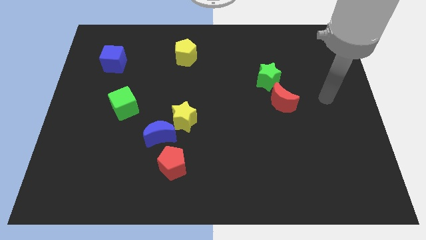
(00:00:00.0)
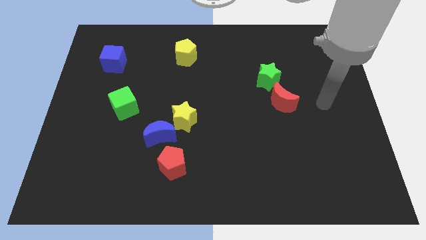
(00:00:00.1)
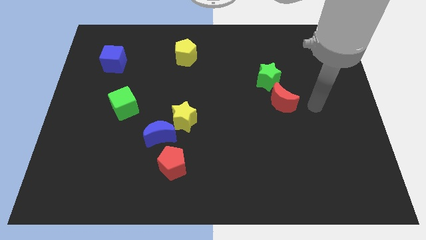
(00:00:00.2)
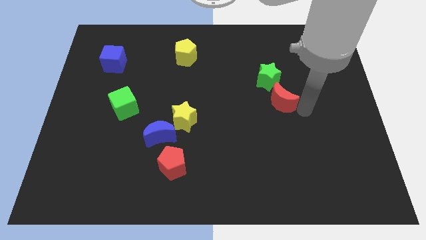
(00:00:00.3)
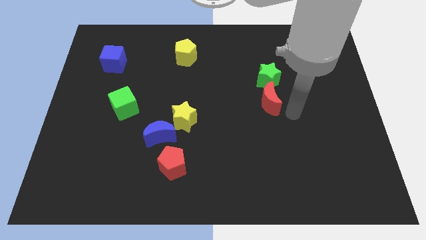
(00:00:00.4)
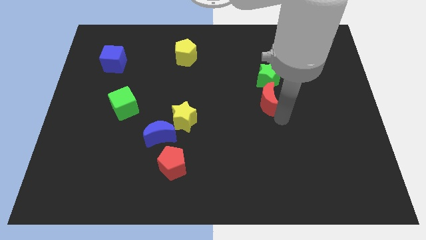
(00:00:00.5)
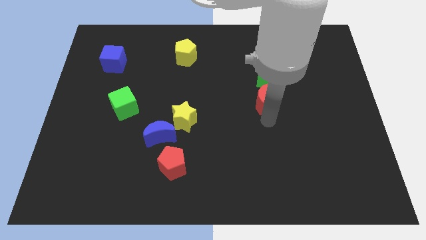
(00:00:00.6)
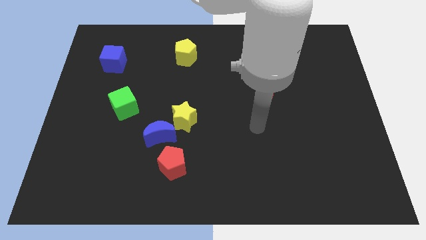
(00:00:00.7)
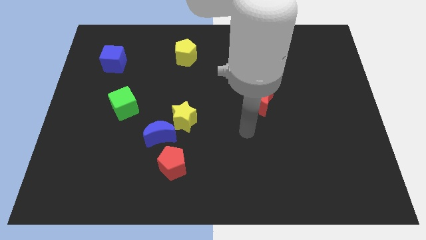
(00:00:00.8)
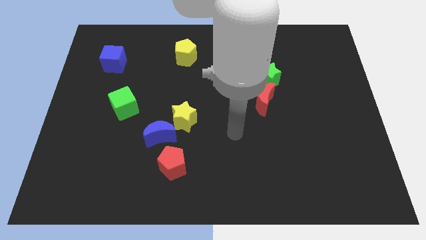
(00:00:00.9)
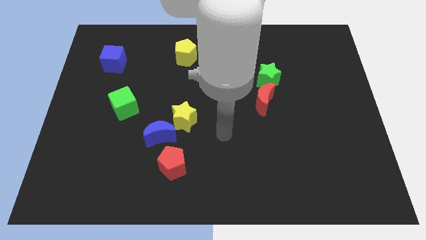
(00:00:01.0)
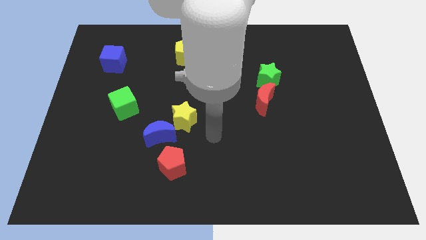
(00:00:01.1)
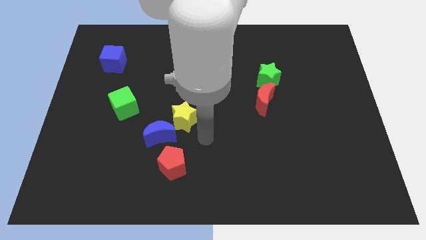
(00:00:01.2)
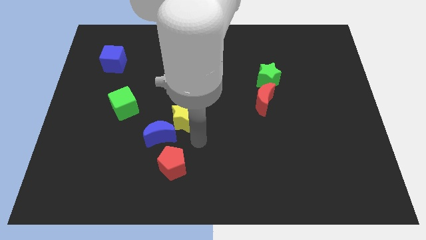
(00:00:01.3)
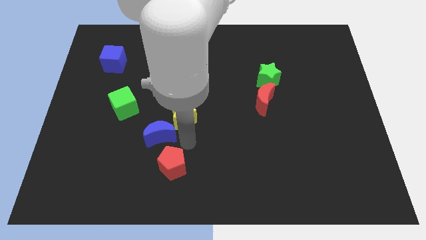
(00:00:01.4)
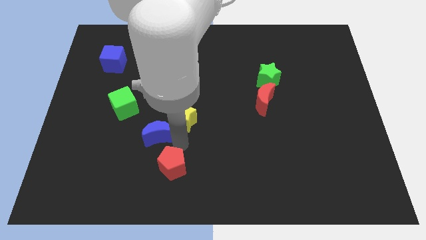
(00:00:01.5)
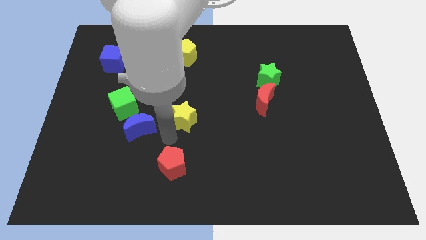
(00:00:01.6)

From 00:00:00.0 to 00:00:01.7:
move the yellow star away from the blue moon

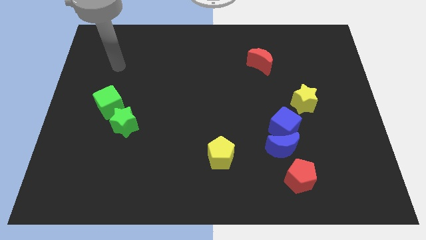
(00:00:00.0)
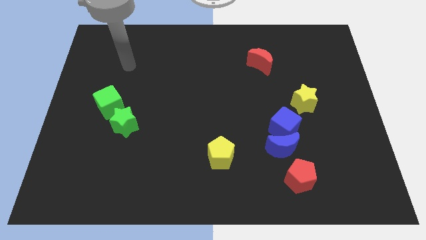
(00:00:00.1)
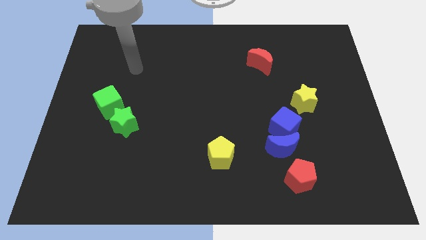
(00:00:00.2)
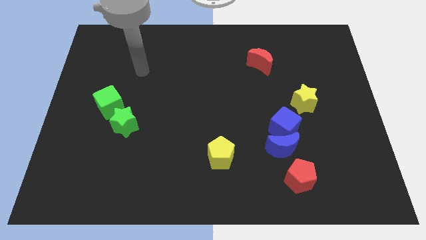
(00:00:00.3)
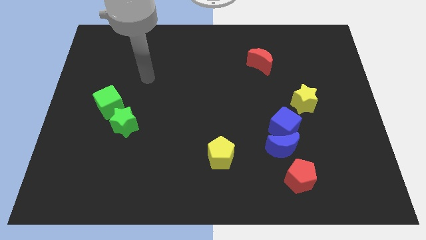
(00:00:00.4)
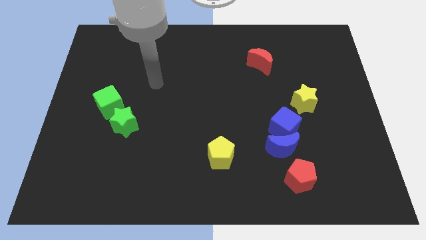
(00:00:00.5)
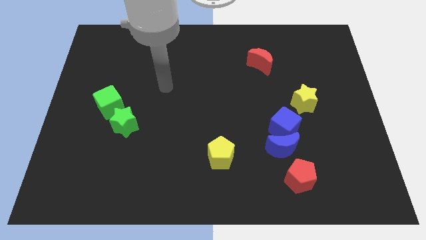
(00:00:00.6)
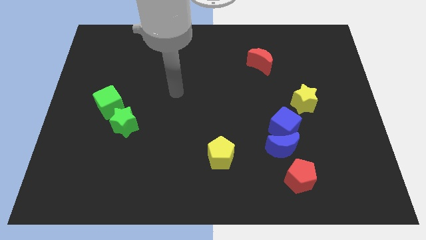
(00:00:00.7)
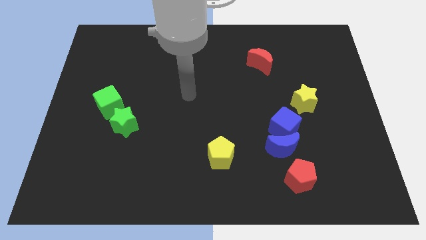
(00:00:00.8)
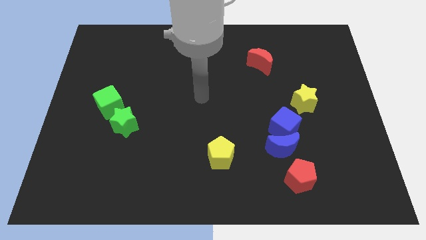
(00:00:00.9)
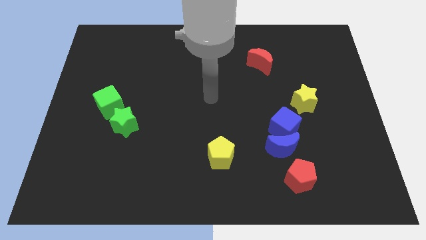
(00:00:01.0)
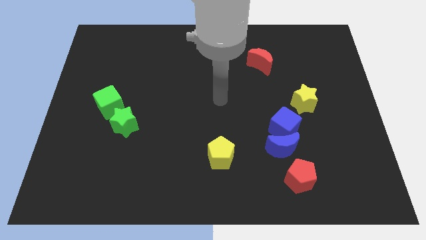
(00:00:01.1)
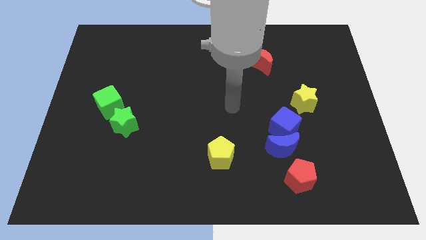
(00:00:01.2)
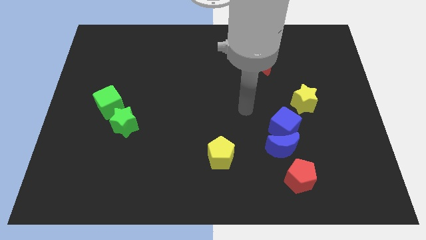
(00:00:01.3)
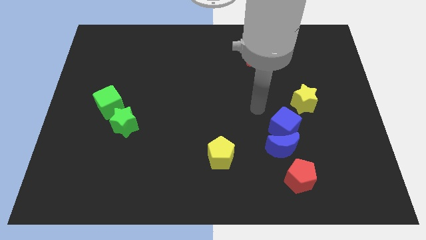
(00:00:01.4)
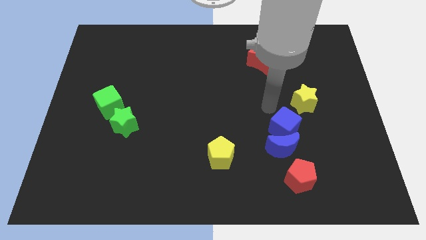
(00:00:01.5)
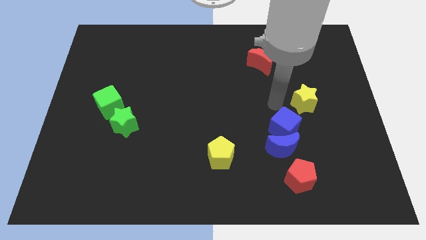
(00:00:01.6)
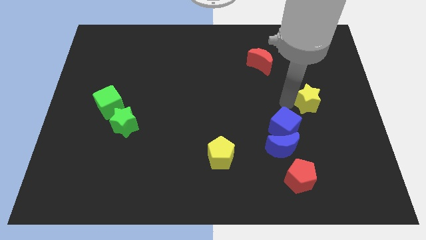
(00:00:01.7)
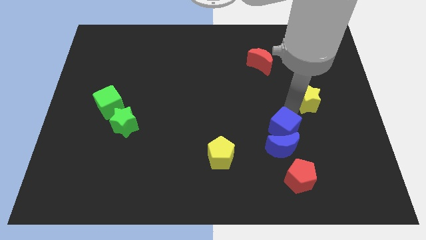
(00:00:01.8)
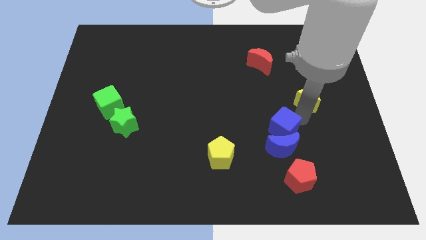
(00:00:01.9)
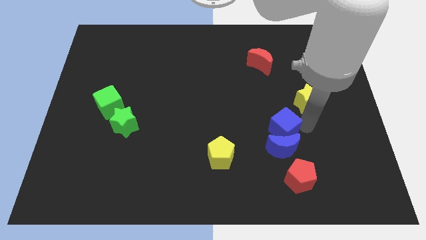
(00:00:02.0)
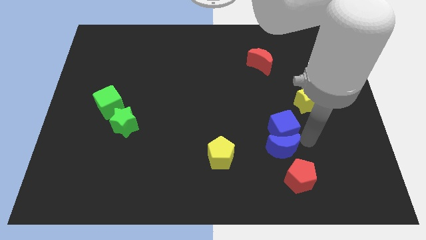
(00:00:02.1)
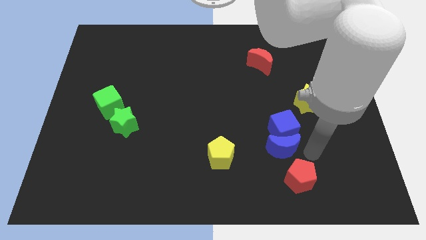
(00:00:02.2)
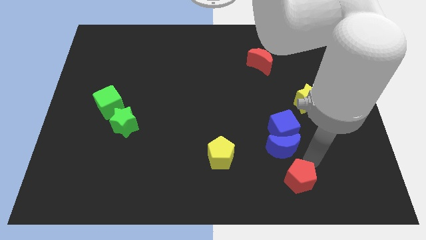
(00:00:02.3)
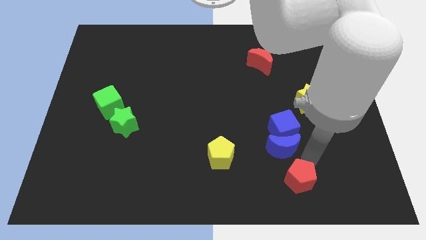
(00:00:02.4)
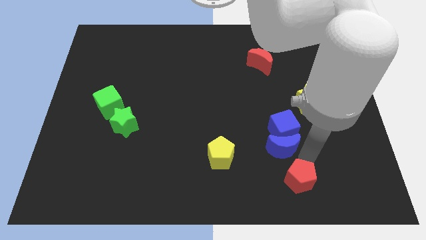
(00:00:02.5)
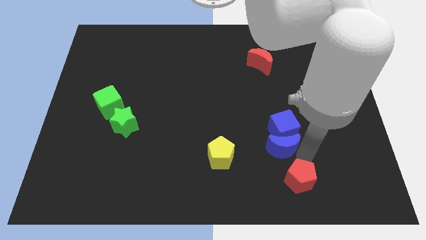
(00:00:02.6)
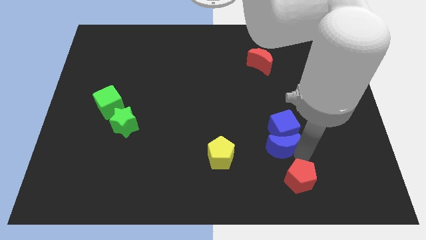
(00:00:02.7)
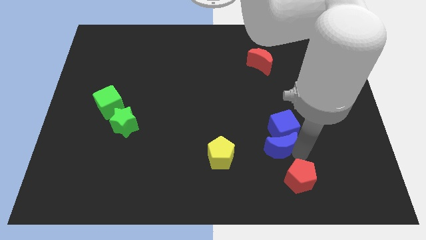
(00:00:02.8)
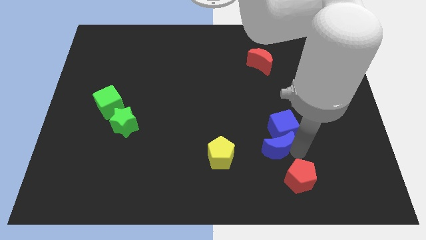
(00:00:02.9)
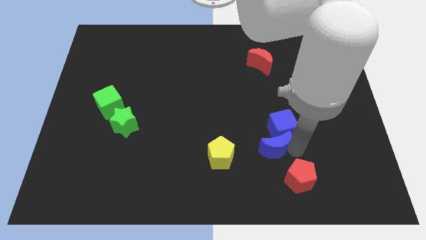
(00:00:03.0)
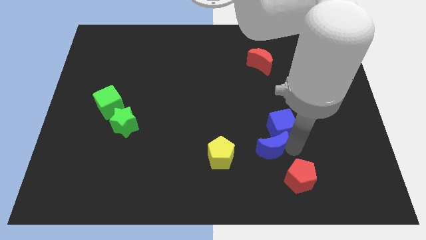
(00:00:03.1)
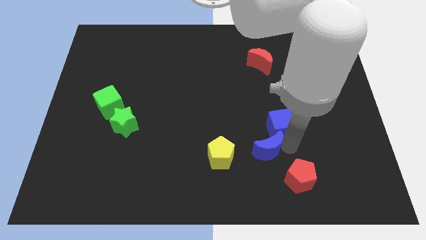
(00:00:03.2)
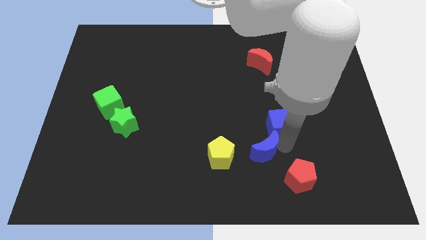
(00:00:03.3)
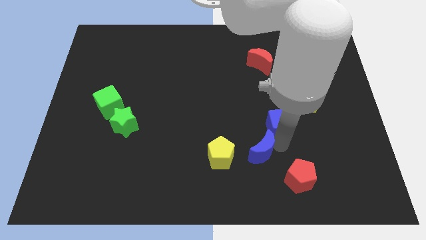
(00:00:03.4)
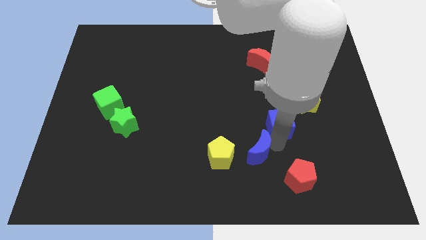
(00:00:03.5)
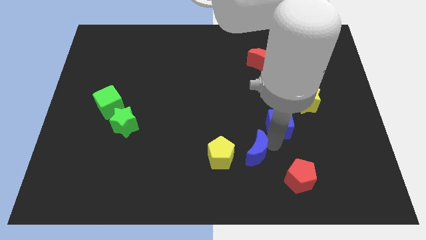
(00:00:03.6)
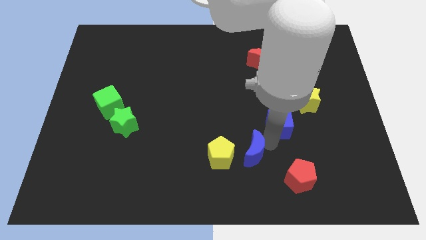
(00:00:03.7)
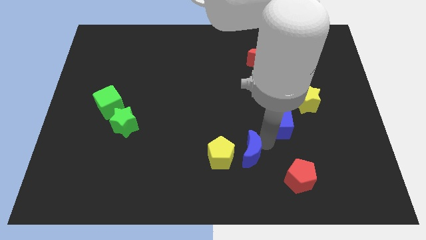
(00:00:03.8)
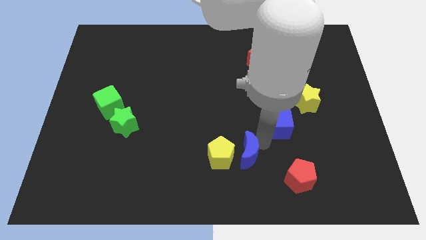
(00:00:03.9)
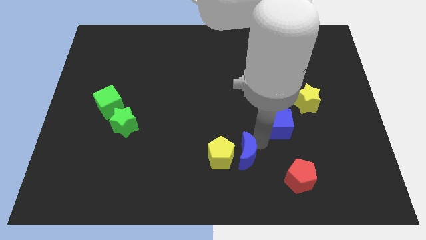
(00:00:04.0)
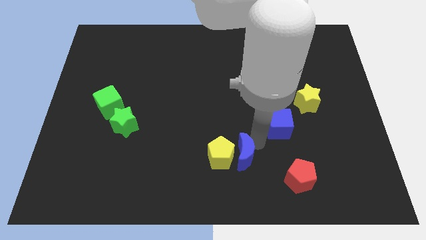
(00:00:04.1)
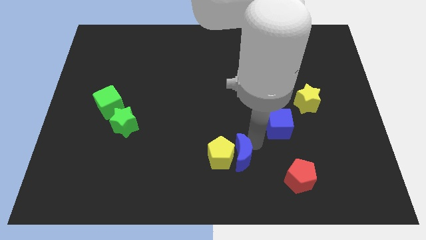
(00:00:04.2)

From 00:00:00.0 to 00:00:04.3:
separate the blue moon from the blue cube and red pentagon

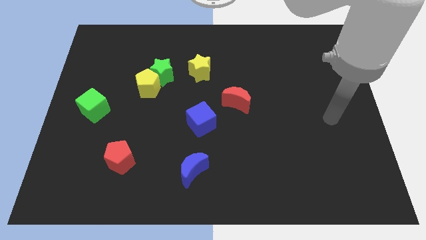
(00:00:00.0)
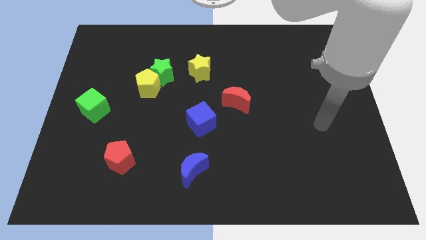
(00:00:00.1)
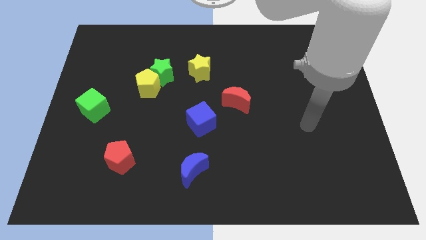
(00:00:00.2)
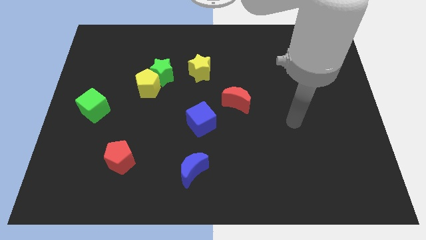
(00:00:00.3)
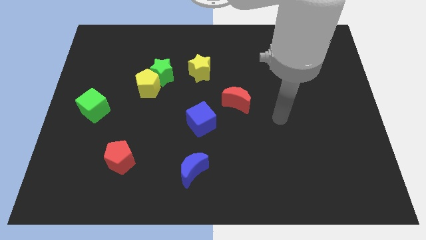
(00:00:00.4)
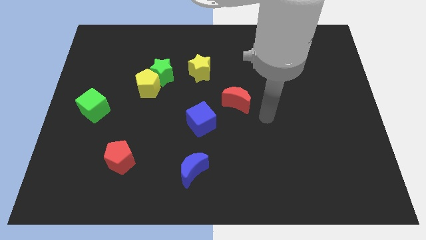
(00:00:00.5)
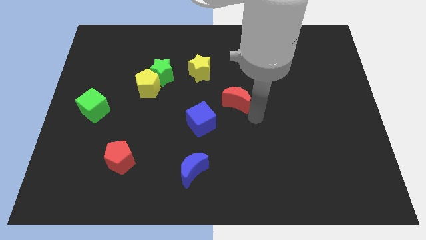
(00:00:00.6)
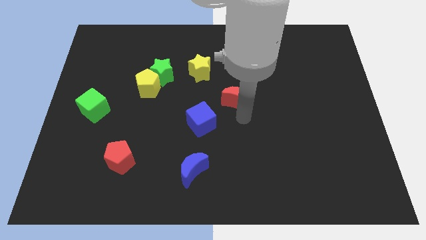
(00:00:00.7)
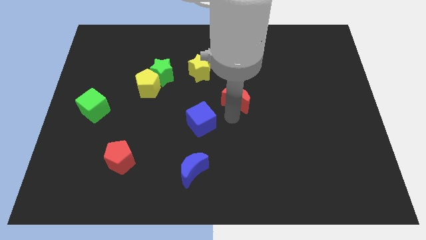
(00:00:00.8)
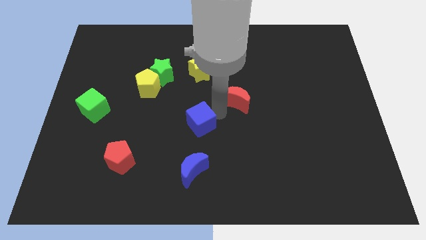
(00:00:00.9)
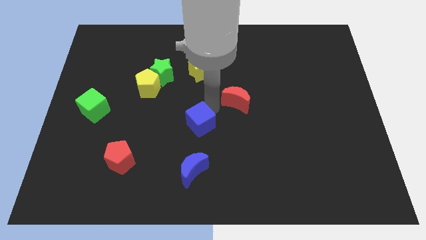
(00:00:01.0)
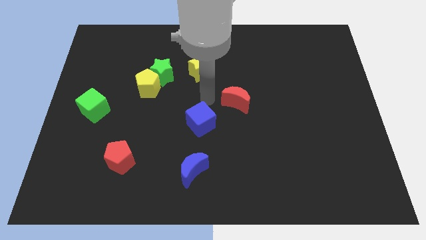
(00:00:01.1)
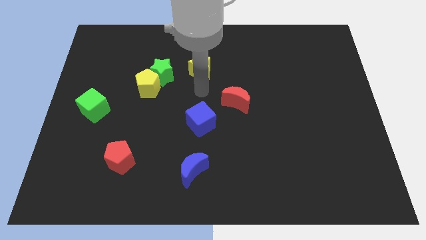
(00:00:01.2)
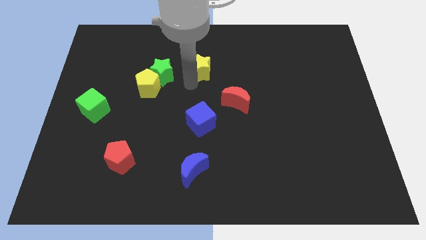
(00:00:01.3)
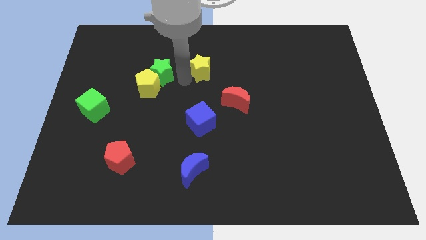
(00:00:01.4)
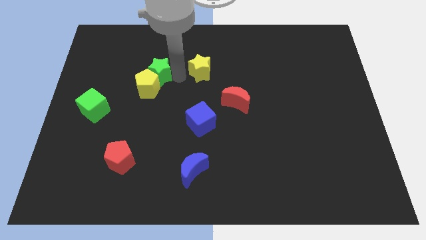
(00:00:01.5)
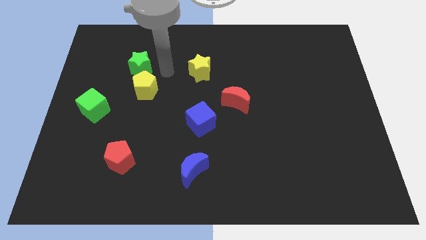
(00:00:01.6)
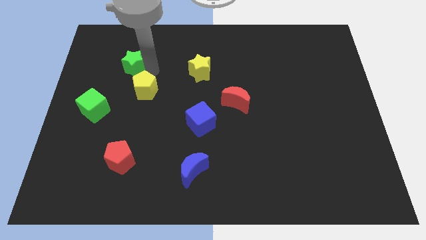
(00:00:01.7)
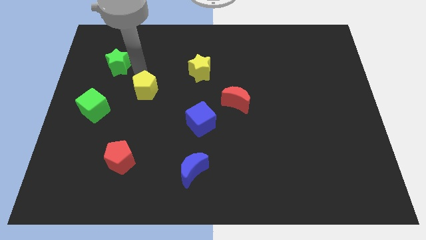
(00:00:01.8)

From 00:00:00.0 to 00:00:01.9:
pull the yellow pentagon apart from the green star

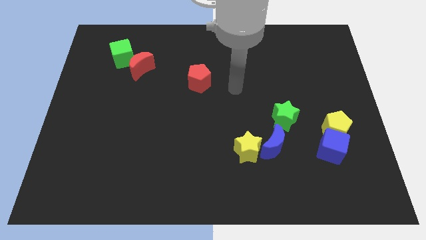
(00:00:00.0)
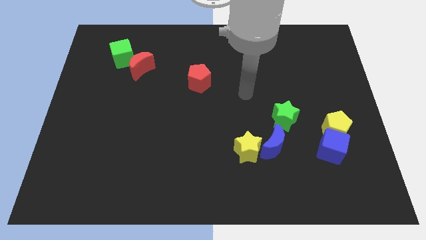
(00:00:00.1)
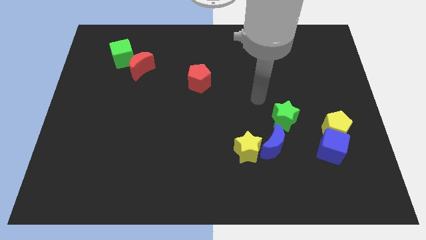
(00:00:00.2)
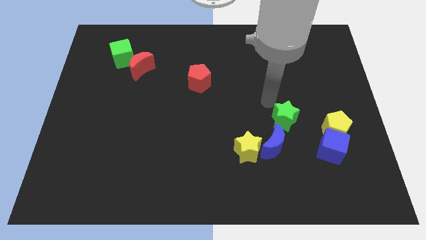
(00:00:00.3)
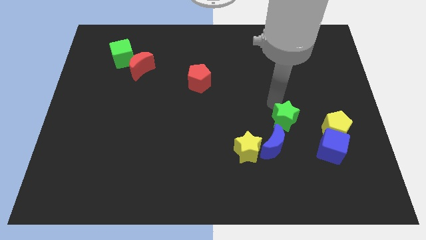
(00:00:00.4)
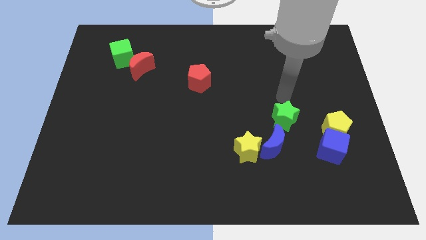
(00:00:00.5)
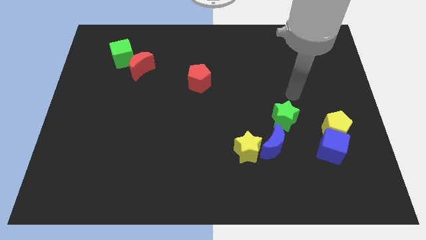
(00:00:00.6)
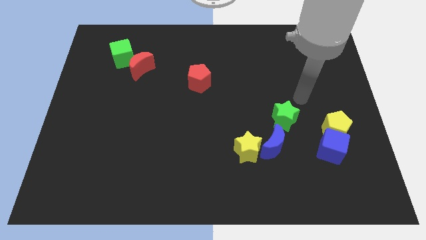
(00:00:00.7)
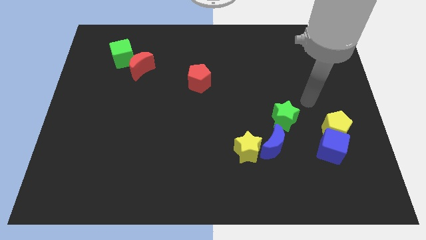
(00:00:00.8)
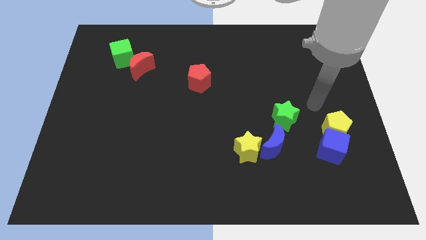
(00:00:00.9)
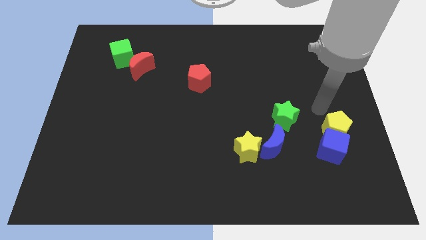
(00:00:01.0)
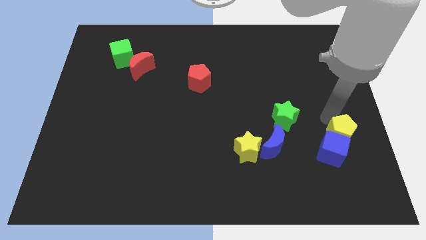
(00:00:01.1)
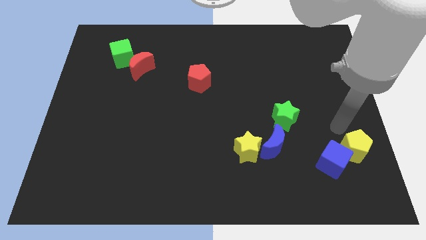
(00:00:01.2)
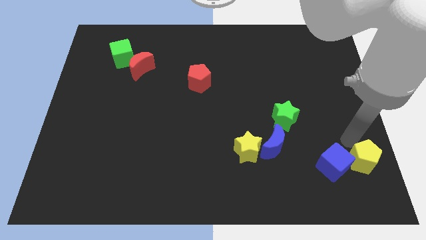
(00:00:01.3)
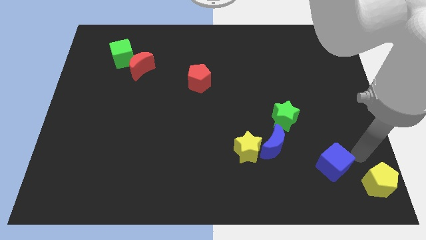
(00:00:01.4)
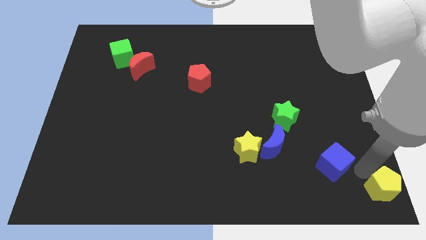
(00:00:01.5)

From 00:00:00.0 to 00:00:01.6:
pull the blue cube apart from the yellow pentagon
